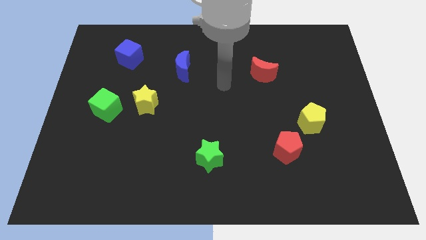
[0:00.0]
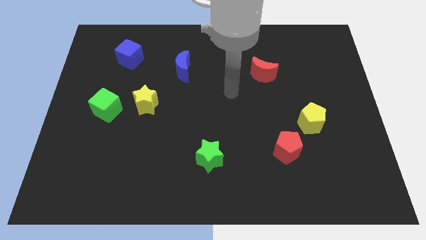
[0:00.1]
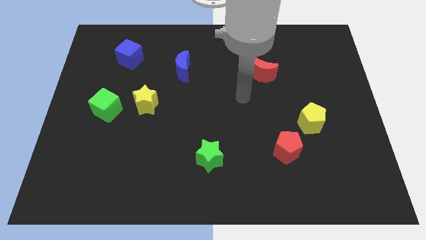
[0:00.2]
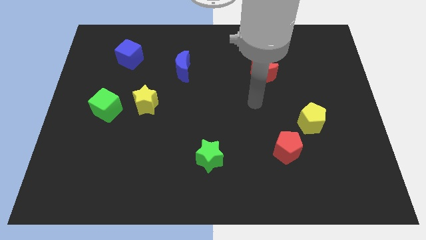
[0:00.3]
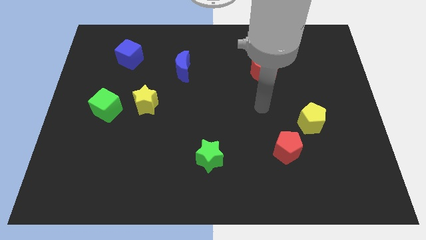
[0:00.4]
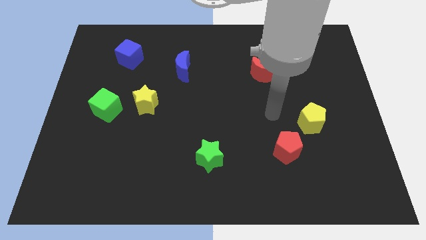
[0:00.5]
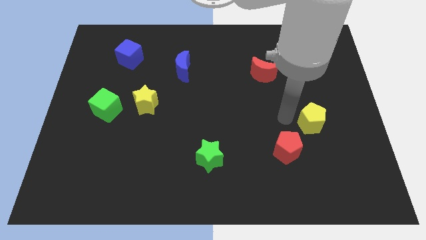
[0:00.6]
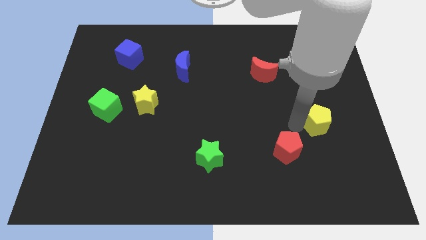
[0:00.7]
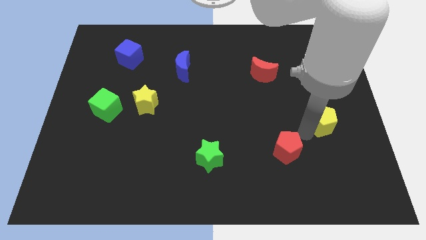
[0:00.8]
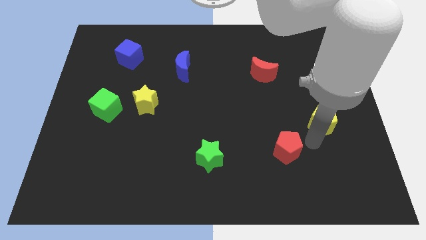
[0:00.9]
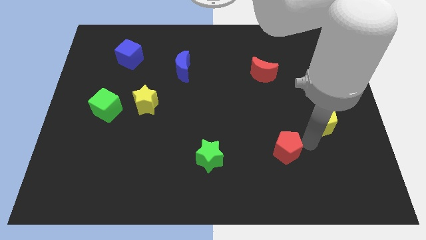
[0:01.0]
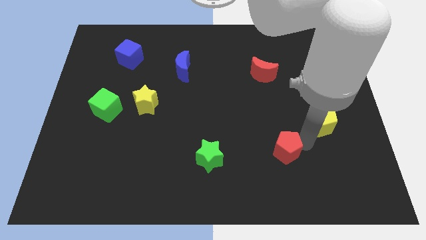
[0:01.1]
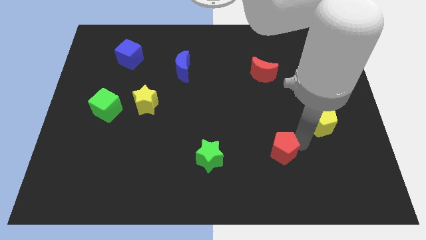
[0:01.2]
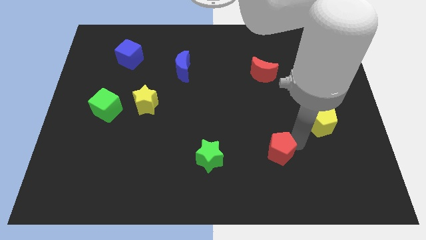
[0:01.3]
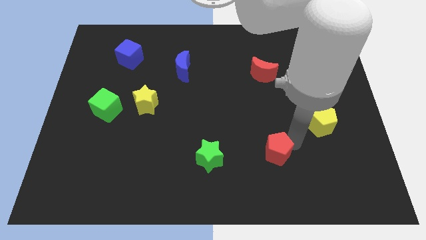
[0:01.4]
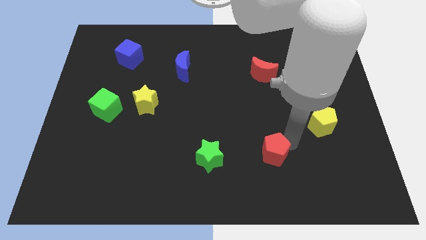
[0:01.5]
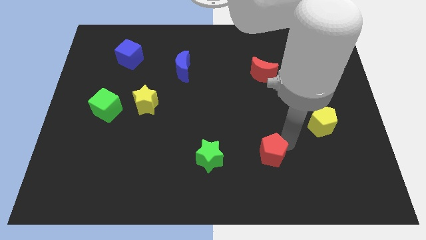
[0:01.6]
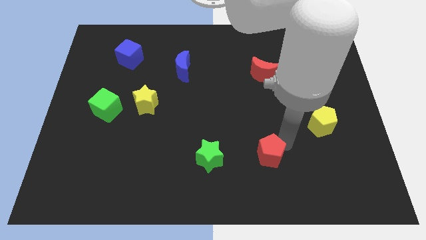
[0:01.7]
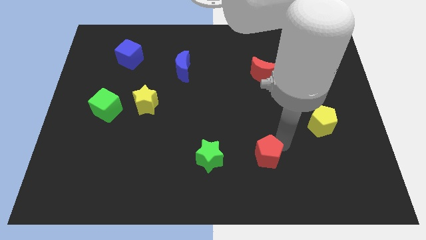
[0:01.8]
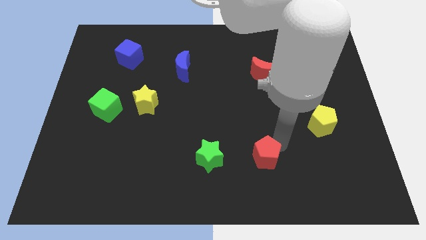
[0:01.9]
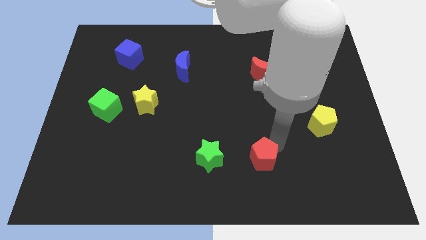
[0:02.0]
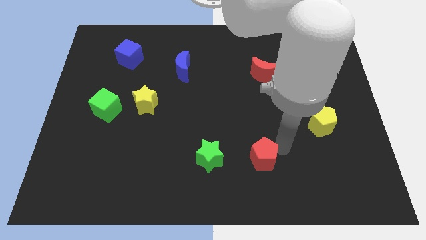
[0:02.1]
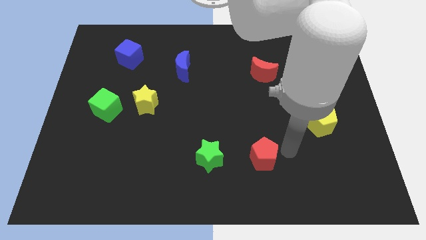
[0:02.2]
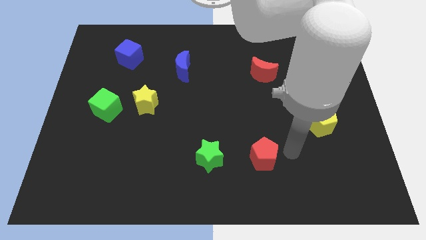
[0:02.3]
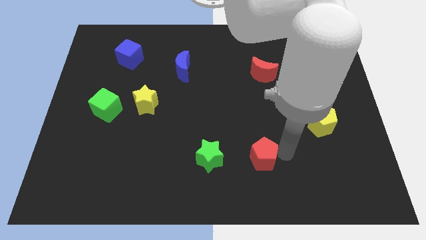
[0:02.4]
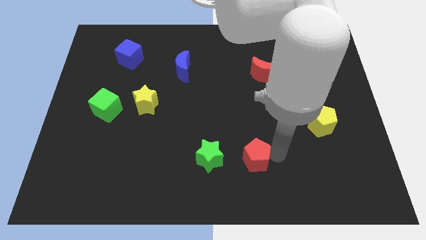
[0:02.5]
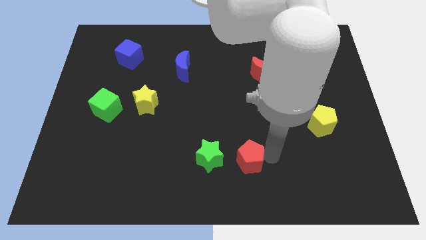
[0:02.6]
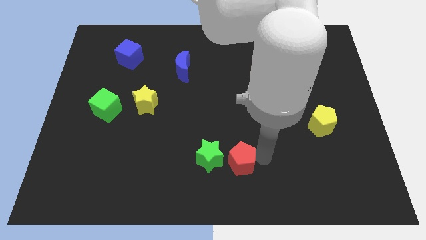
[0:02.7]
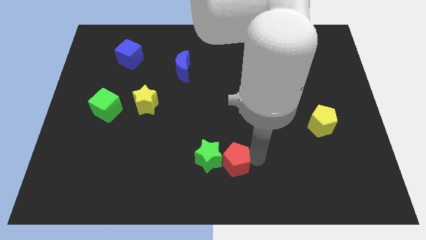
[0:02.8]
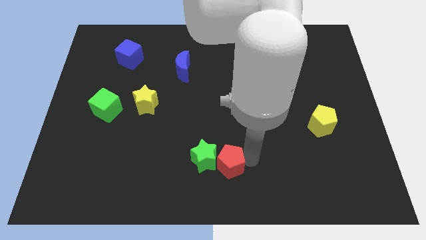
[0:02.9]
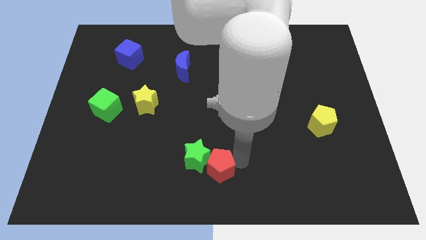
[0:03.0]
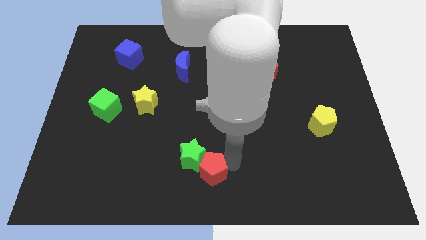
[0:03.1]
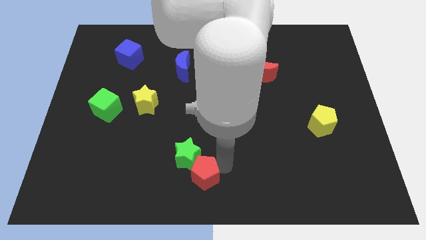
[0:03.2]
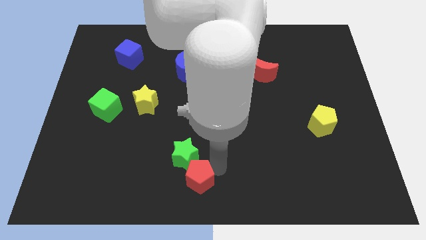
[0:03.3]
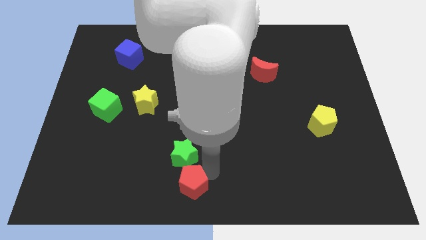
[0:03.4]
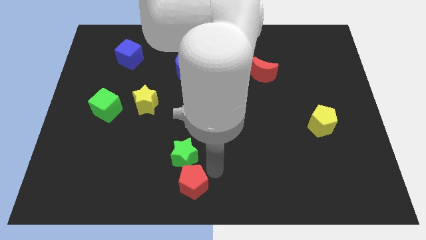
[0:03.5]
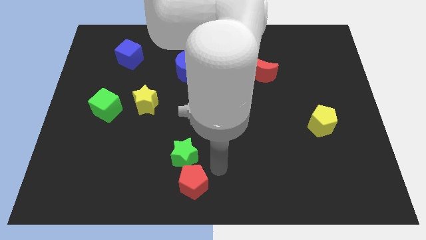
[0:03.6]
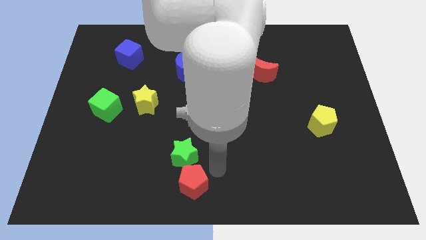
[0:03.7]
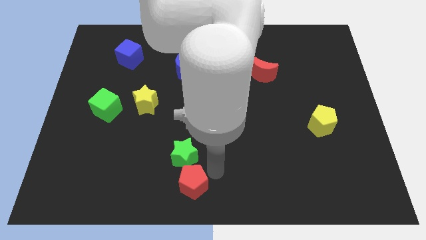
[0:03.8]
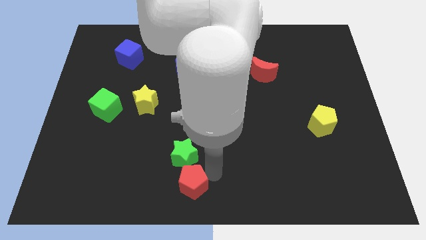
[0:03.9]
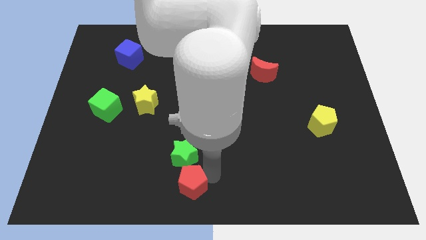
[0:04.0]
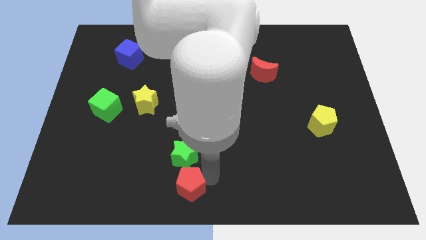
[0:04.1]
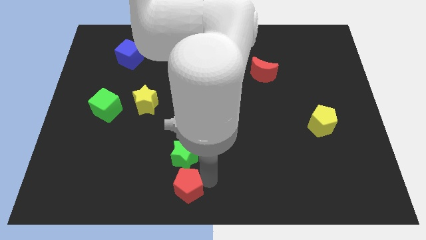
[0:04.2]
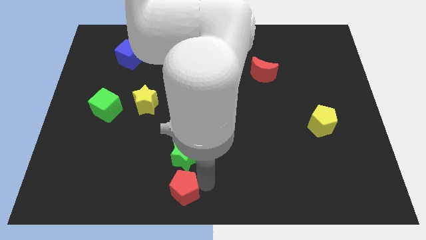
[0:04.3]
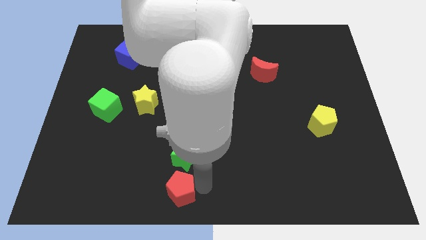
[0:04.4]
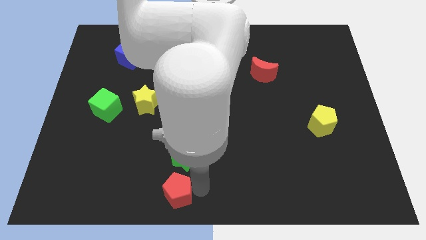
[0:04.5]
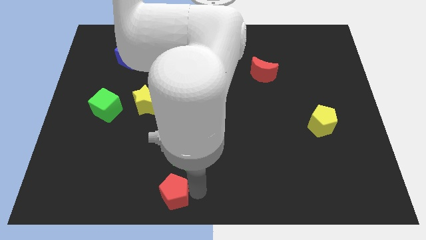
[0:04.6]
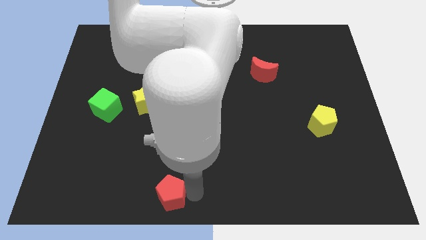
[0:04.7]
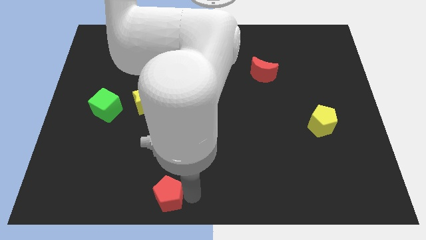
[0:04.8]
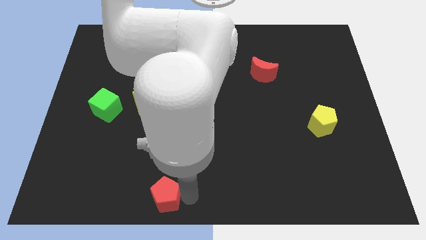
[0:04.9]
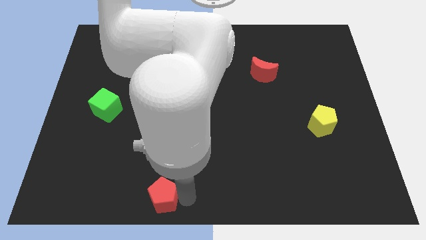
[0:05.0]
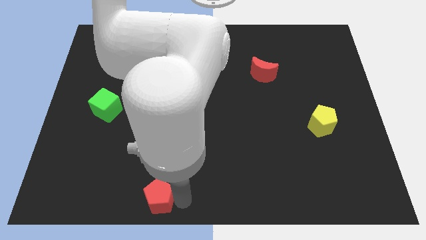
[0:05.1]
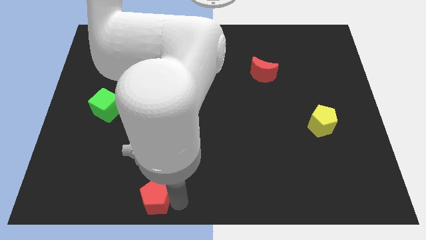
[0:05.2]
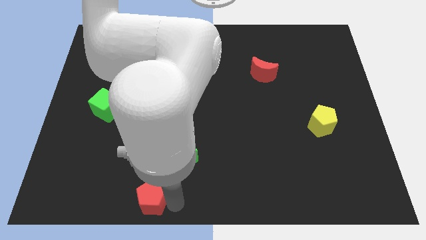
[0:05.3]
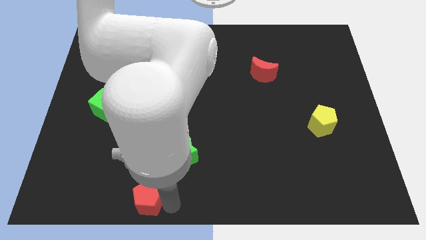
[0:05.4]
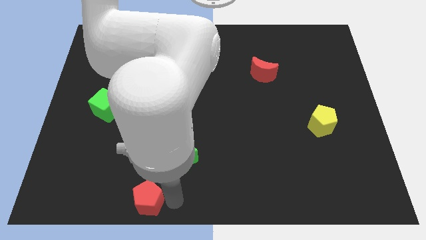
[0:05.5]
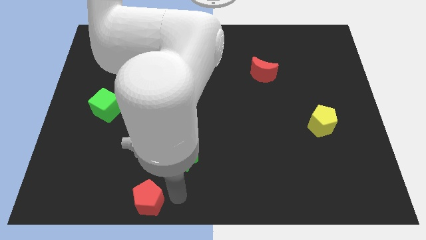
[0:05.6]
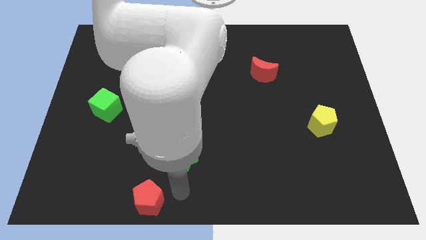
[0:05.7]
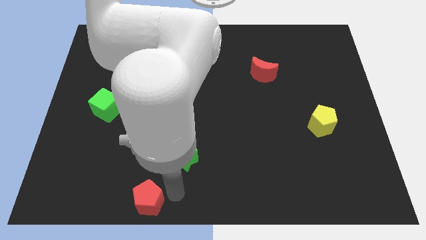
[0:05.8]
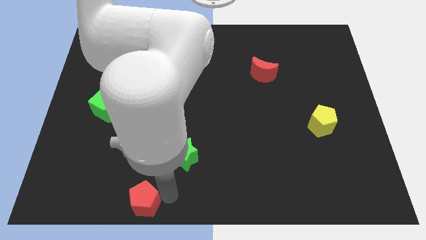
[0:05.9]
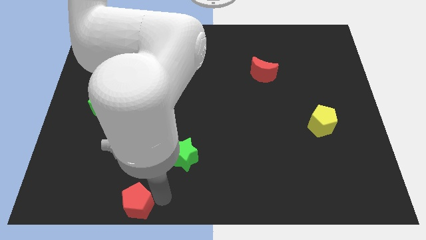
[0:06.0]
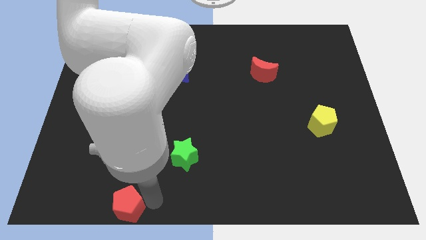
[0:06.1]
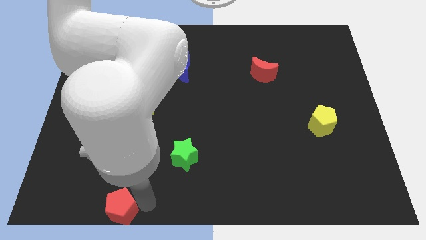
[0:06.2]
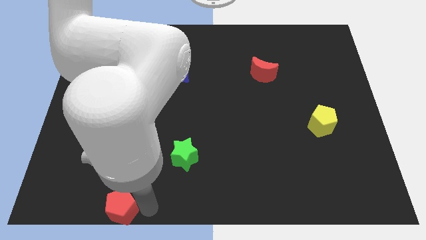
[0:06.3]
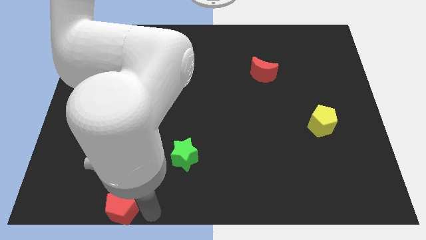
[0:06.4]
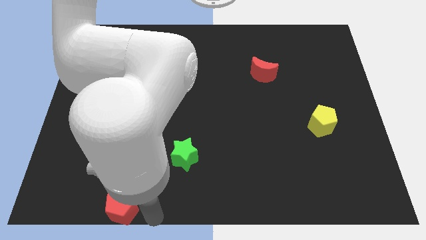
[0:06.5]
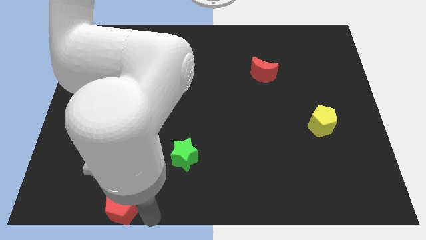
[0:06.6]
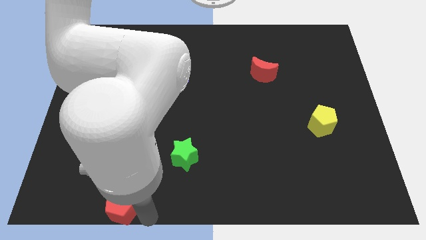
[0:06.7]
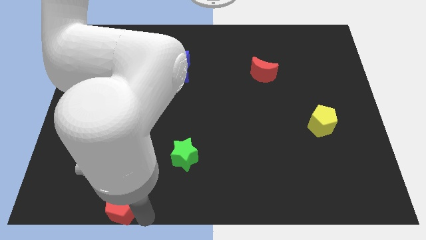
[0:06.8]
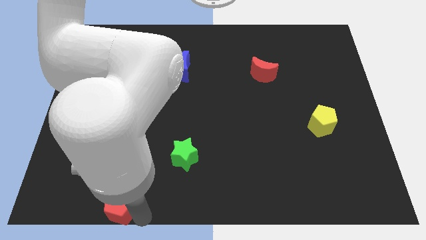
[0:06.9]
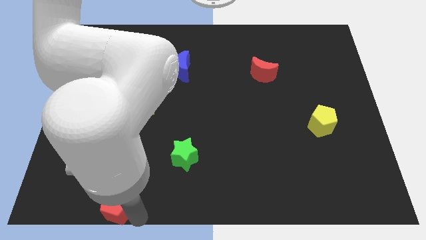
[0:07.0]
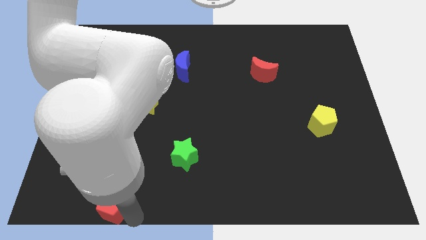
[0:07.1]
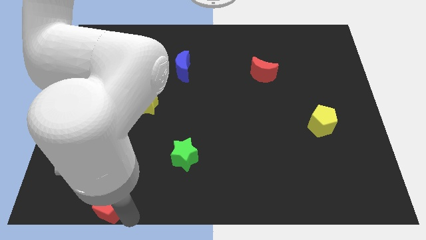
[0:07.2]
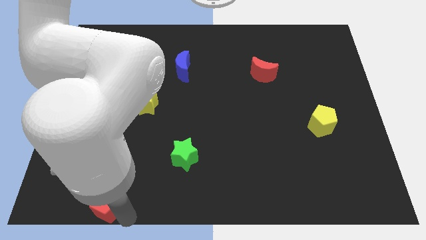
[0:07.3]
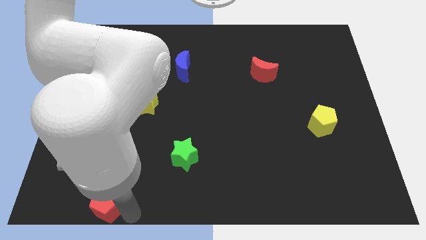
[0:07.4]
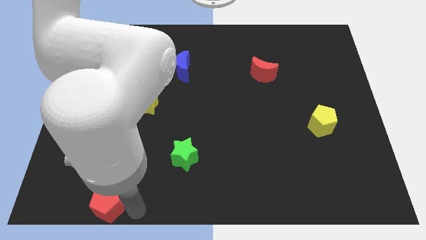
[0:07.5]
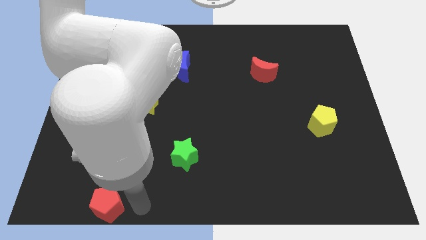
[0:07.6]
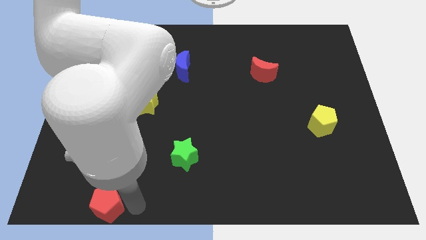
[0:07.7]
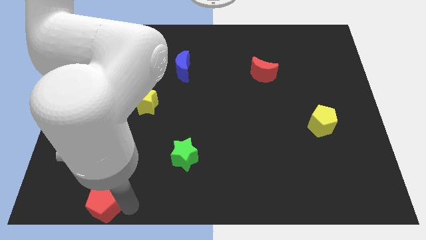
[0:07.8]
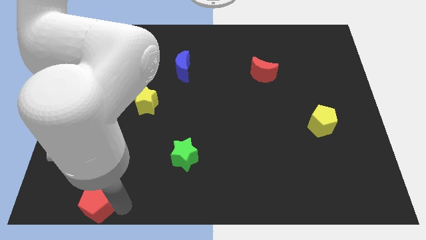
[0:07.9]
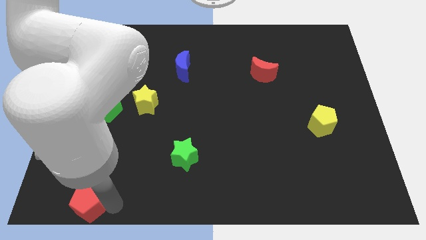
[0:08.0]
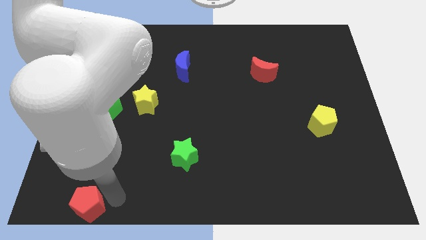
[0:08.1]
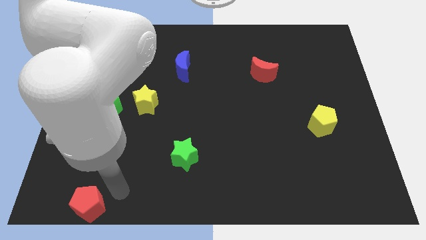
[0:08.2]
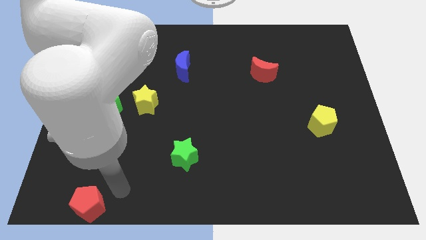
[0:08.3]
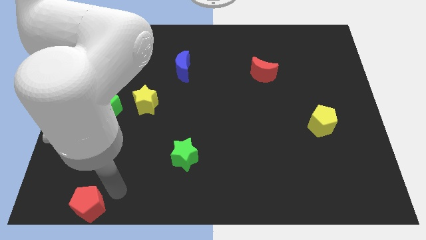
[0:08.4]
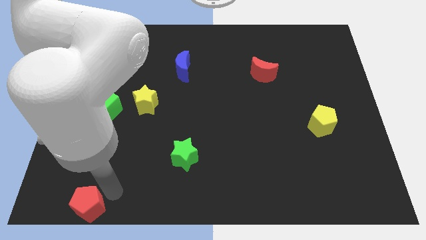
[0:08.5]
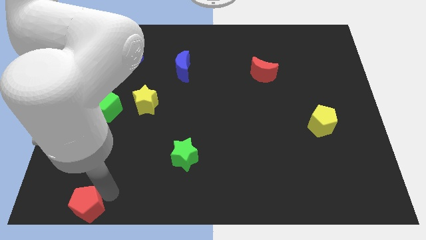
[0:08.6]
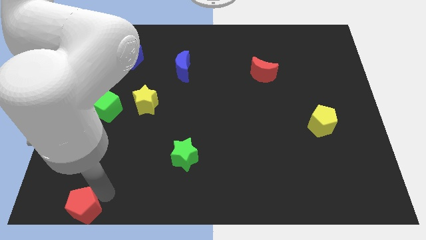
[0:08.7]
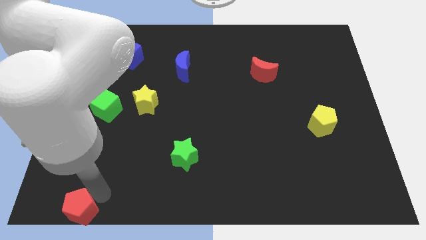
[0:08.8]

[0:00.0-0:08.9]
slide the red pentagon to the bottom left
